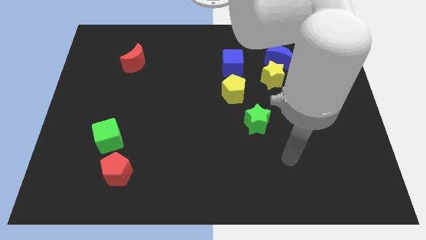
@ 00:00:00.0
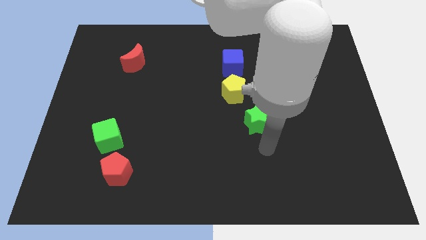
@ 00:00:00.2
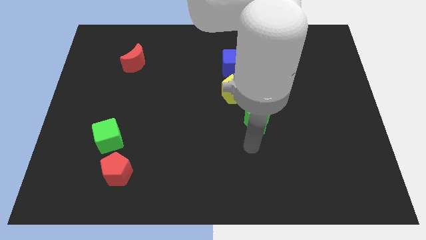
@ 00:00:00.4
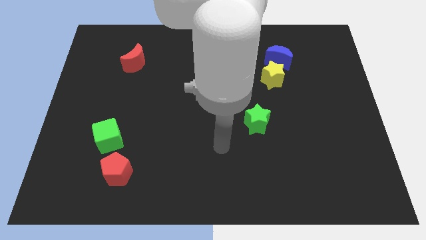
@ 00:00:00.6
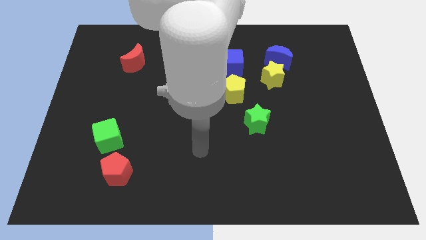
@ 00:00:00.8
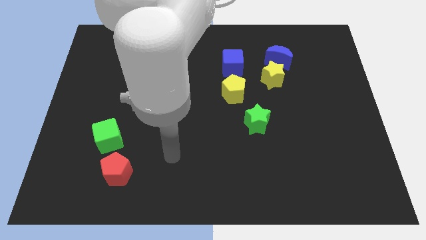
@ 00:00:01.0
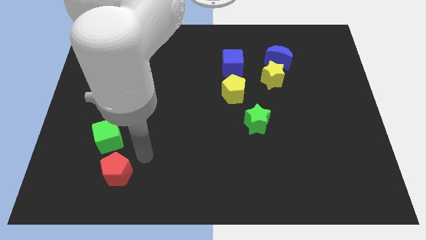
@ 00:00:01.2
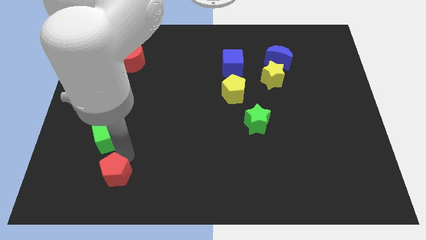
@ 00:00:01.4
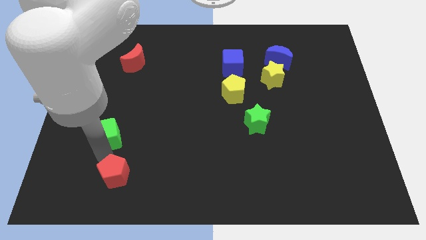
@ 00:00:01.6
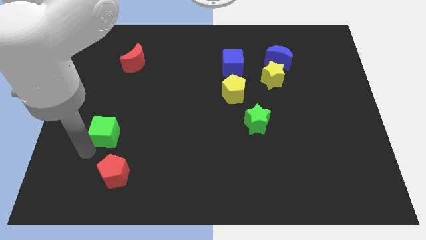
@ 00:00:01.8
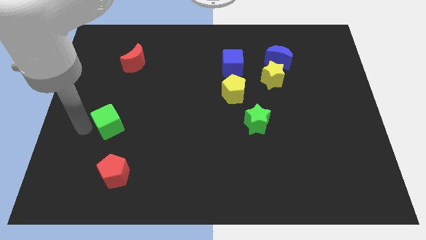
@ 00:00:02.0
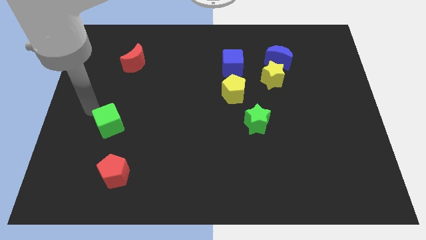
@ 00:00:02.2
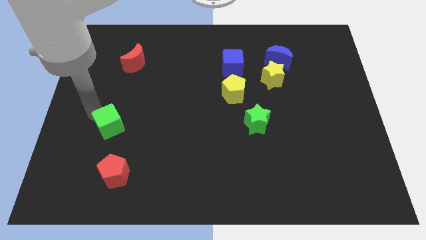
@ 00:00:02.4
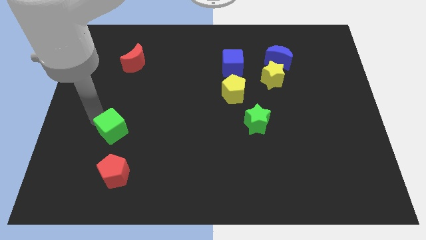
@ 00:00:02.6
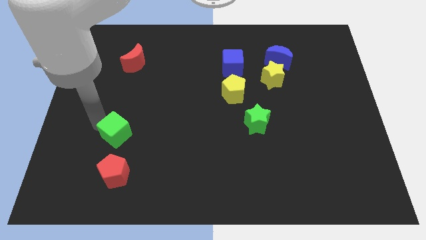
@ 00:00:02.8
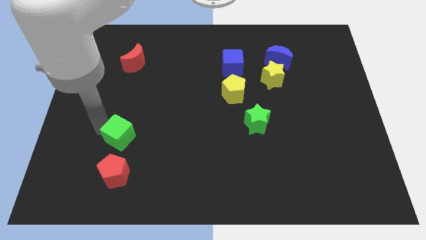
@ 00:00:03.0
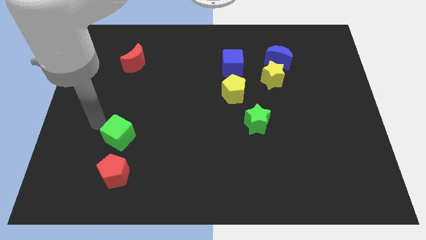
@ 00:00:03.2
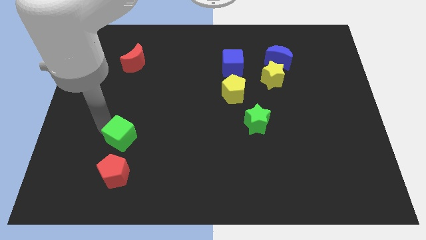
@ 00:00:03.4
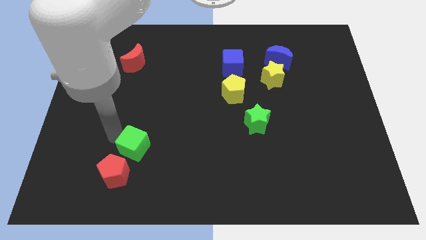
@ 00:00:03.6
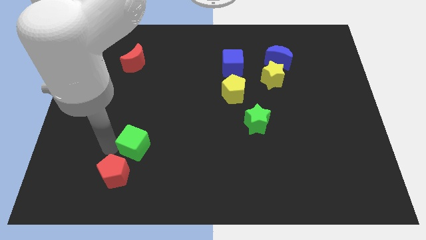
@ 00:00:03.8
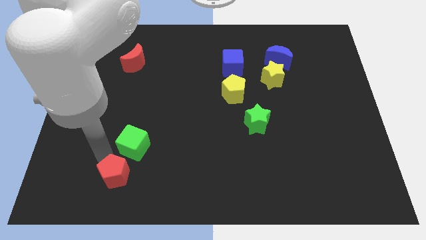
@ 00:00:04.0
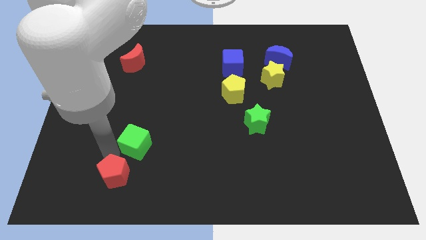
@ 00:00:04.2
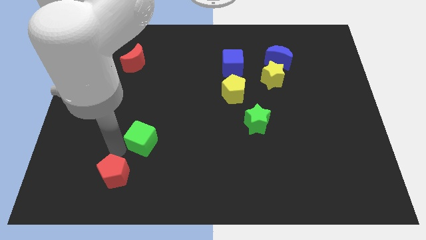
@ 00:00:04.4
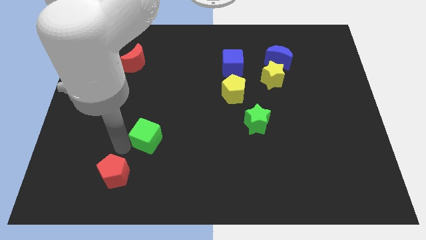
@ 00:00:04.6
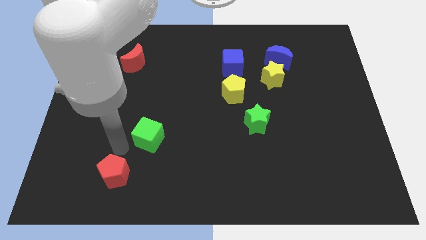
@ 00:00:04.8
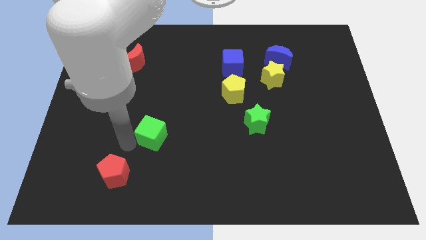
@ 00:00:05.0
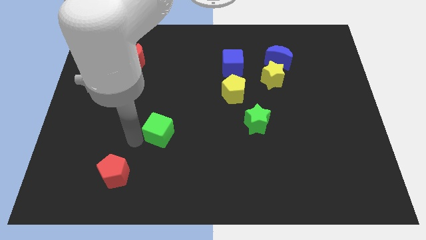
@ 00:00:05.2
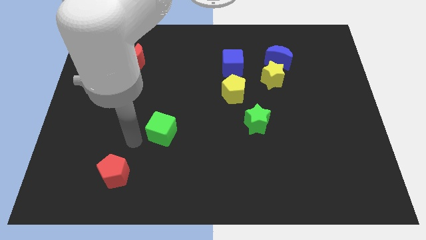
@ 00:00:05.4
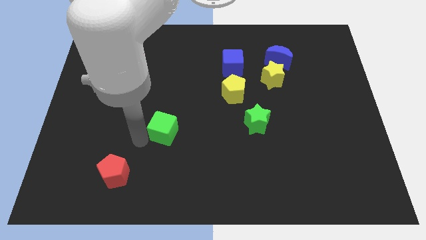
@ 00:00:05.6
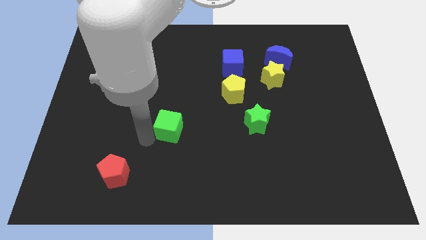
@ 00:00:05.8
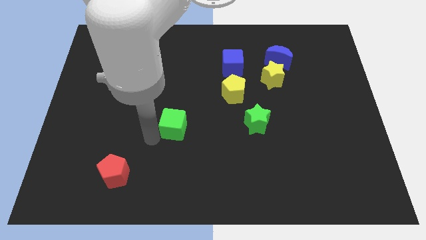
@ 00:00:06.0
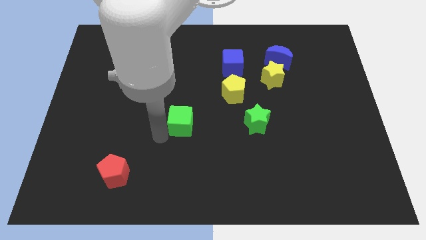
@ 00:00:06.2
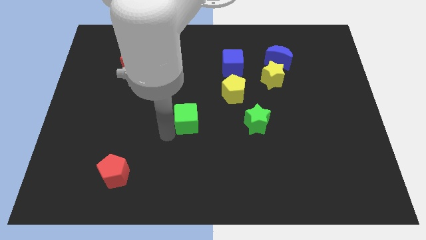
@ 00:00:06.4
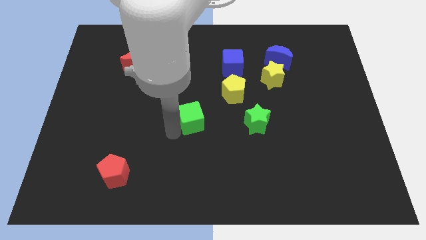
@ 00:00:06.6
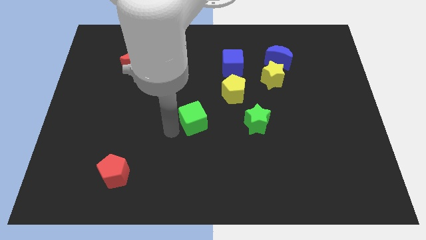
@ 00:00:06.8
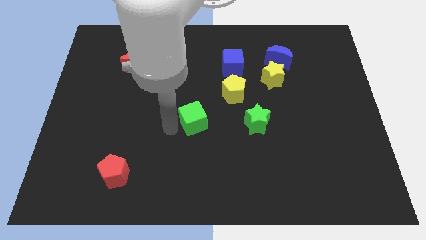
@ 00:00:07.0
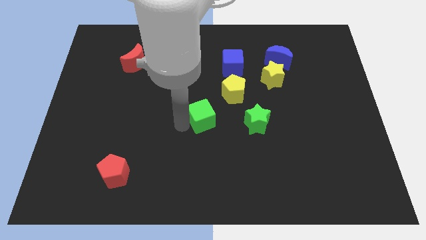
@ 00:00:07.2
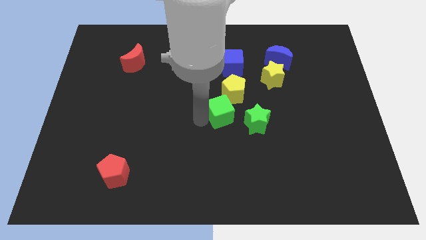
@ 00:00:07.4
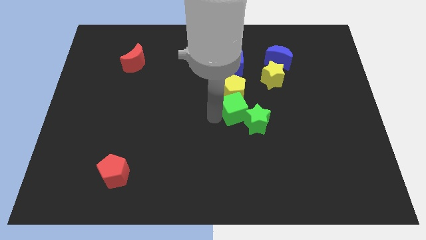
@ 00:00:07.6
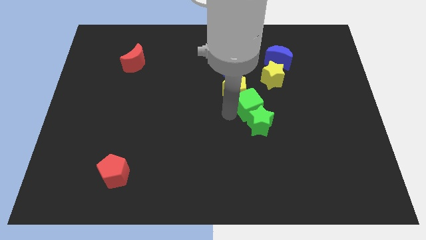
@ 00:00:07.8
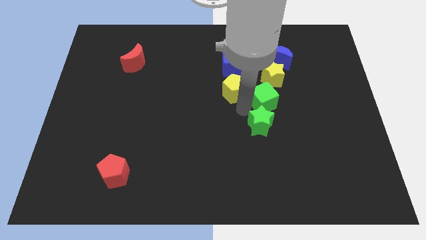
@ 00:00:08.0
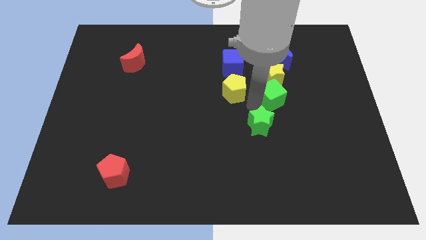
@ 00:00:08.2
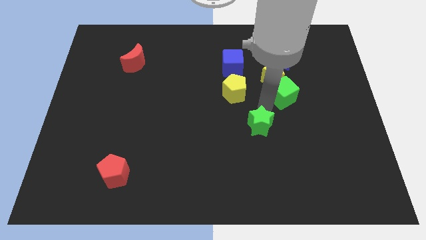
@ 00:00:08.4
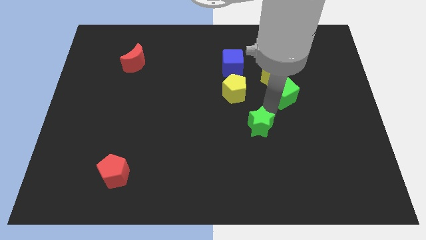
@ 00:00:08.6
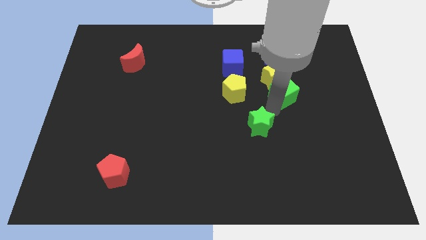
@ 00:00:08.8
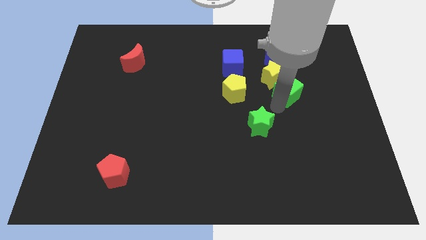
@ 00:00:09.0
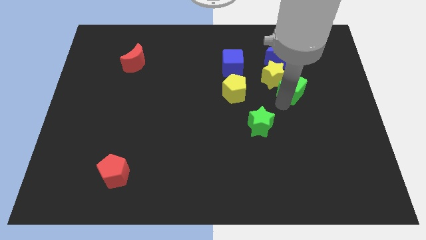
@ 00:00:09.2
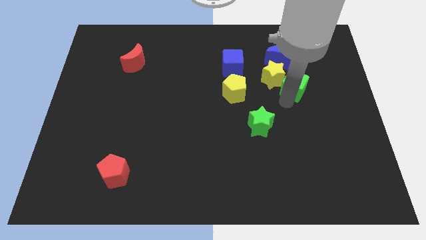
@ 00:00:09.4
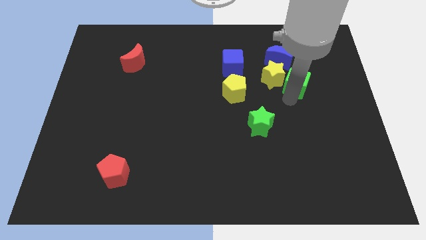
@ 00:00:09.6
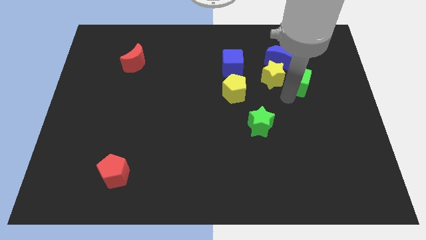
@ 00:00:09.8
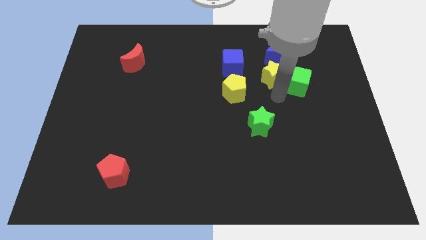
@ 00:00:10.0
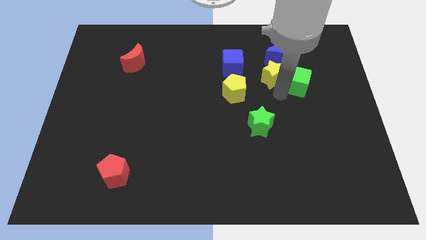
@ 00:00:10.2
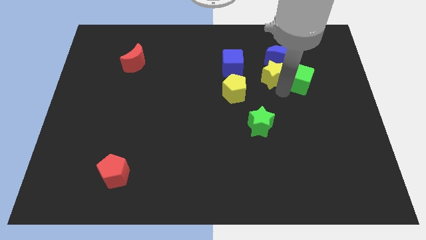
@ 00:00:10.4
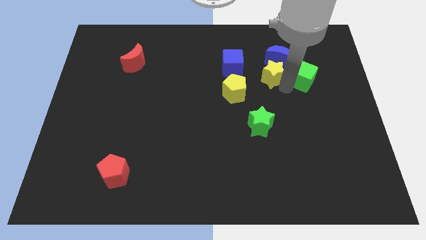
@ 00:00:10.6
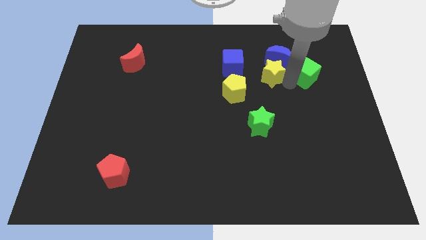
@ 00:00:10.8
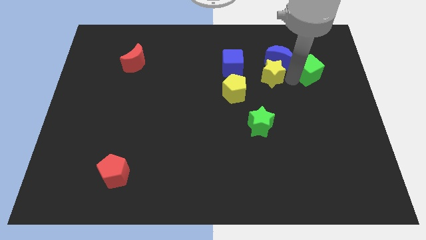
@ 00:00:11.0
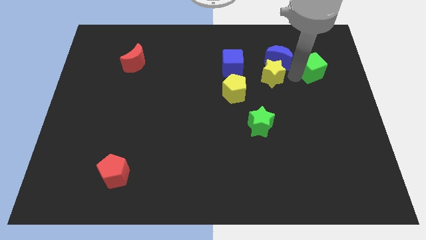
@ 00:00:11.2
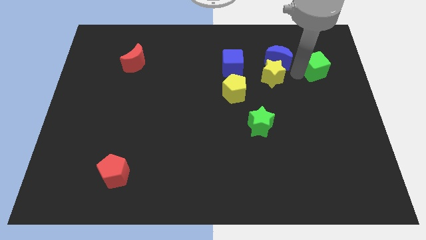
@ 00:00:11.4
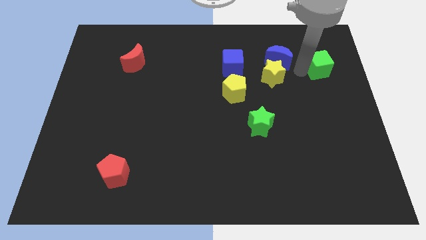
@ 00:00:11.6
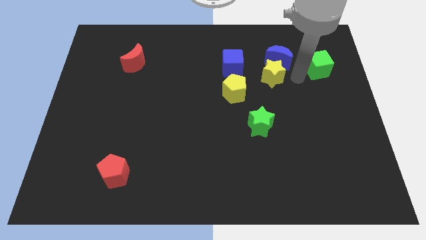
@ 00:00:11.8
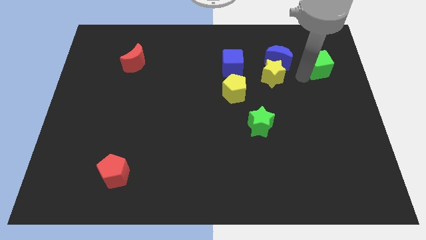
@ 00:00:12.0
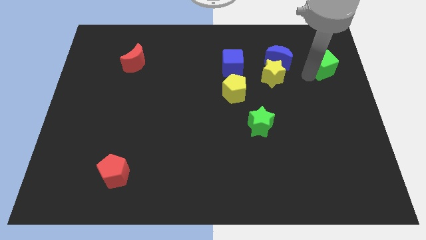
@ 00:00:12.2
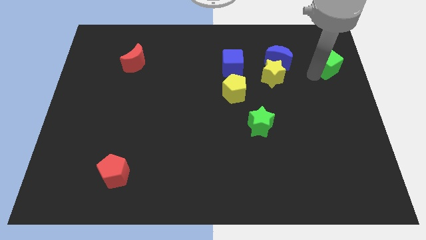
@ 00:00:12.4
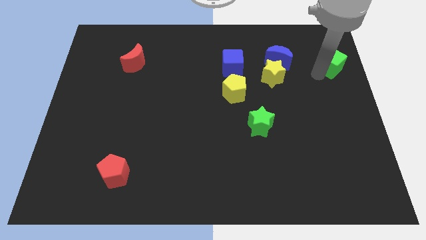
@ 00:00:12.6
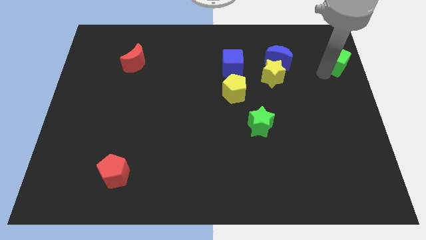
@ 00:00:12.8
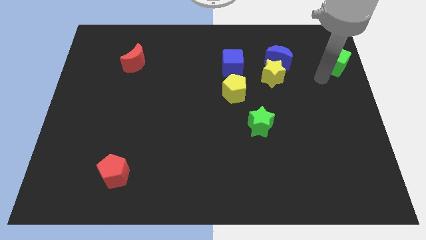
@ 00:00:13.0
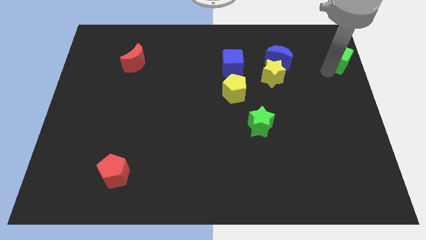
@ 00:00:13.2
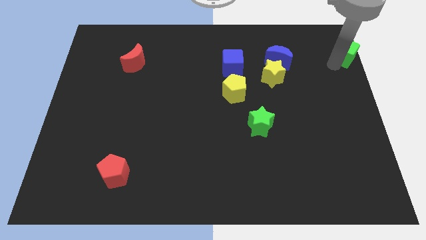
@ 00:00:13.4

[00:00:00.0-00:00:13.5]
put the green cube to the top right corner
